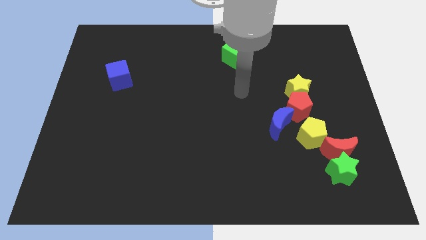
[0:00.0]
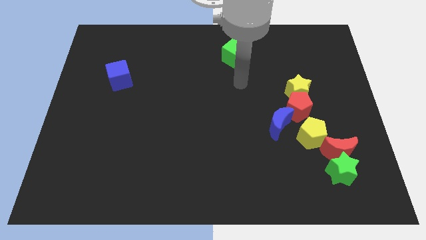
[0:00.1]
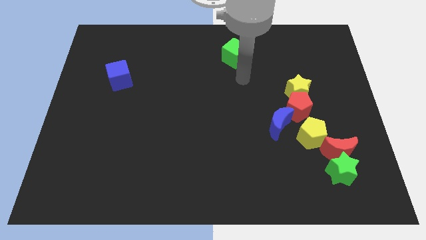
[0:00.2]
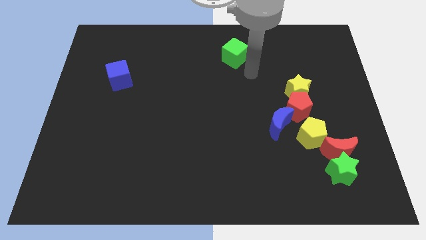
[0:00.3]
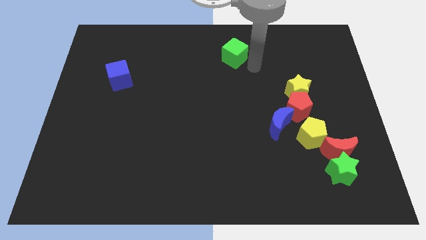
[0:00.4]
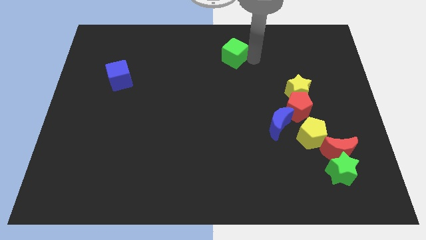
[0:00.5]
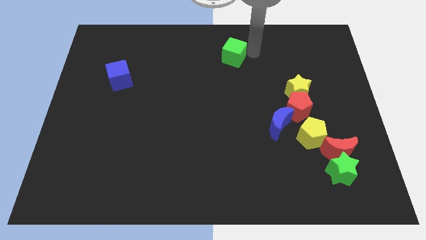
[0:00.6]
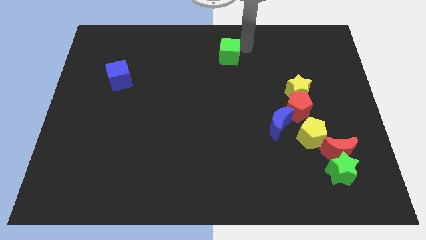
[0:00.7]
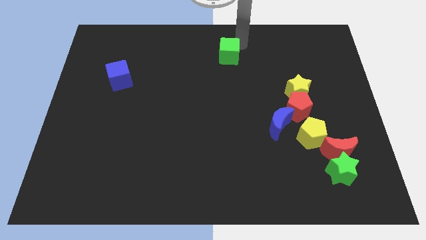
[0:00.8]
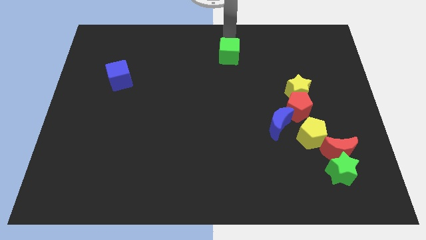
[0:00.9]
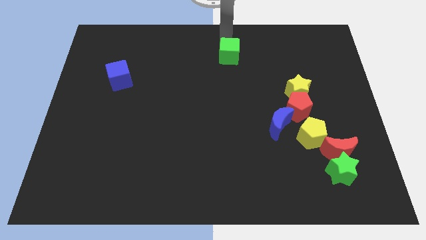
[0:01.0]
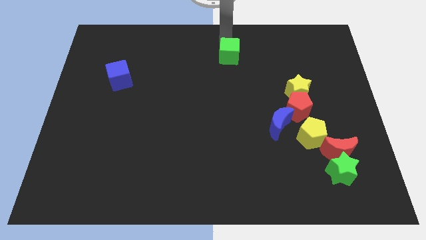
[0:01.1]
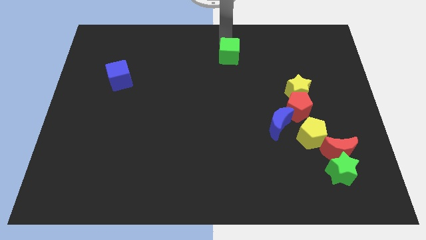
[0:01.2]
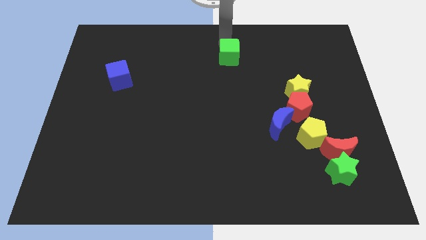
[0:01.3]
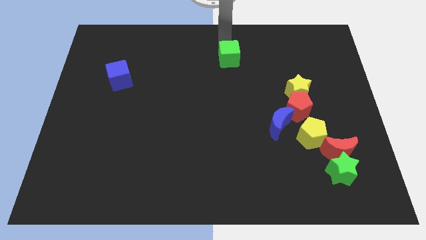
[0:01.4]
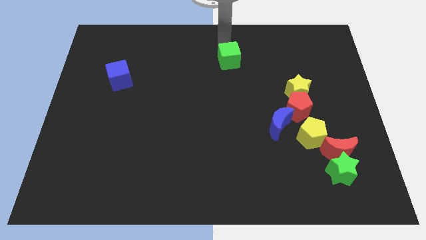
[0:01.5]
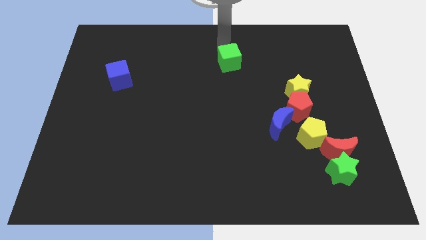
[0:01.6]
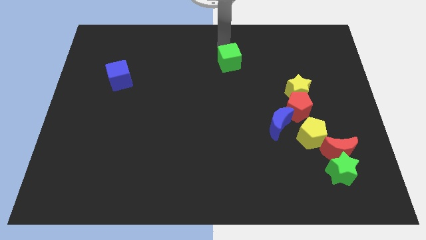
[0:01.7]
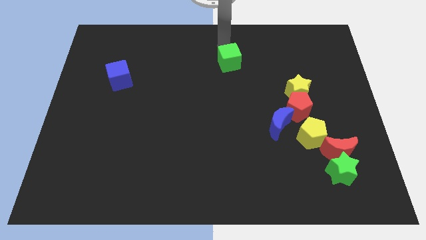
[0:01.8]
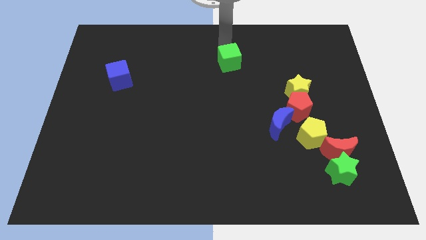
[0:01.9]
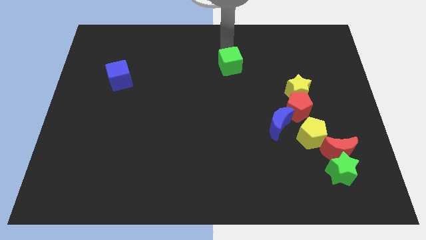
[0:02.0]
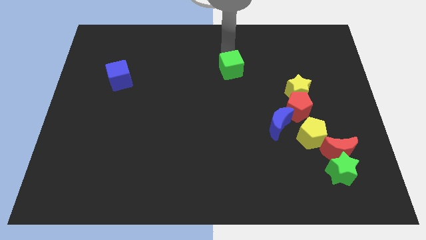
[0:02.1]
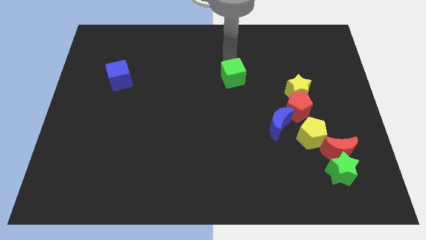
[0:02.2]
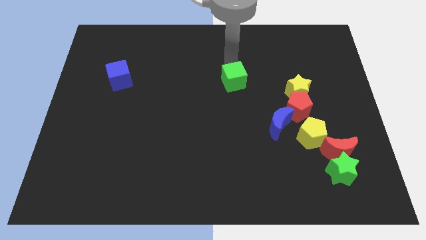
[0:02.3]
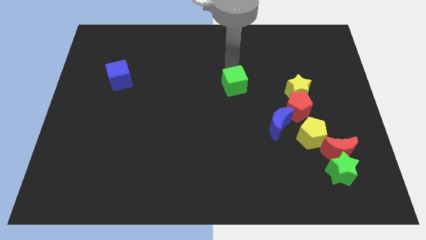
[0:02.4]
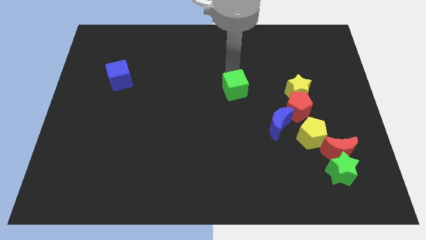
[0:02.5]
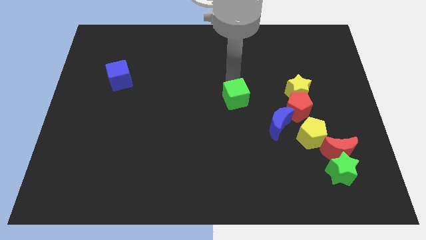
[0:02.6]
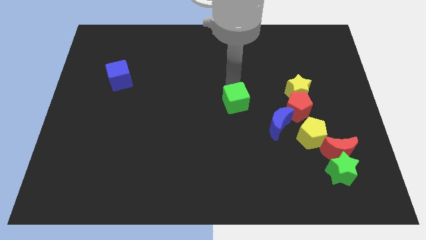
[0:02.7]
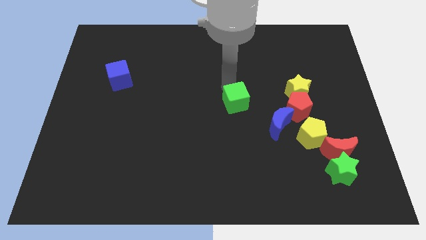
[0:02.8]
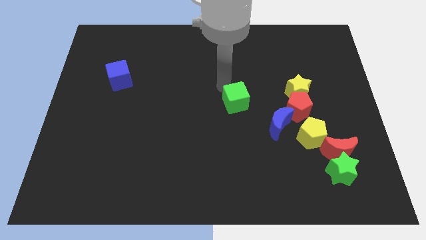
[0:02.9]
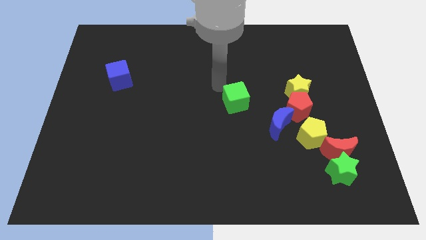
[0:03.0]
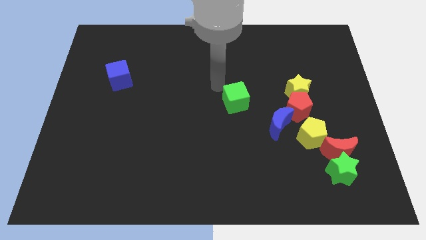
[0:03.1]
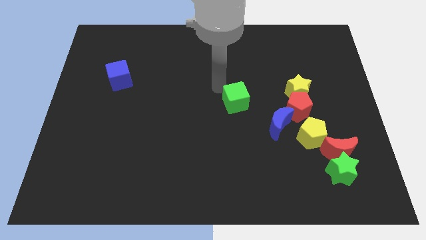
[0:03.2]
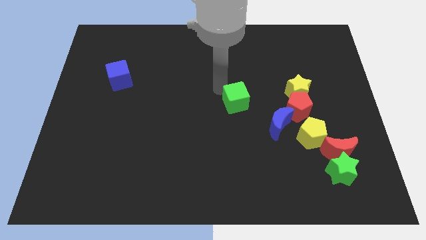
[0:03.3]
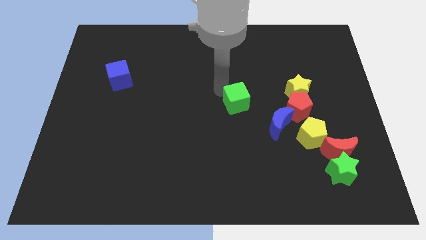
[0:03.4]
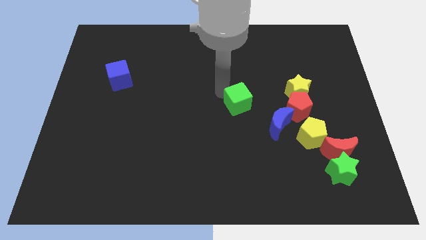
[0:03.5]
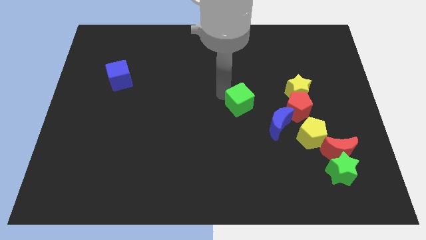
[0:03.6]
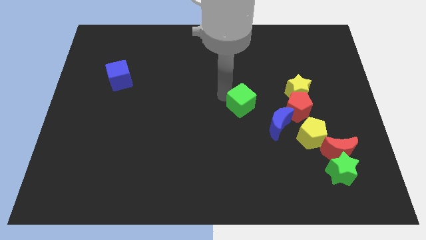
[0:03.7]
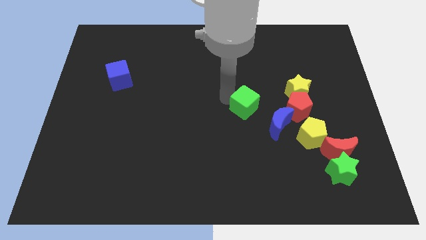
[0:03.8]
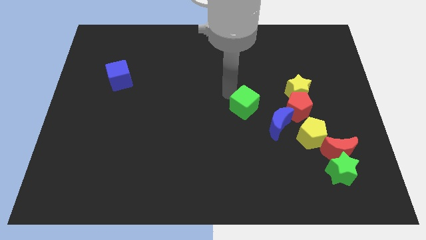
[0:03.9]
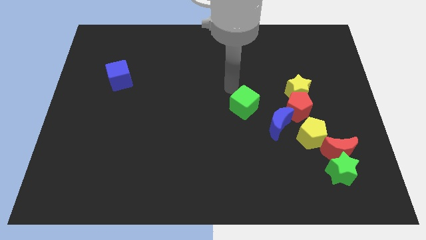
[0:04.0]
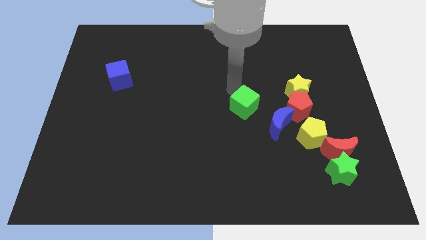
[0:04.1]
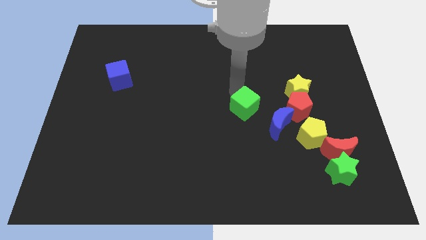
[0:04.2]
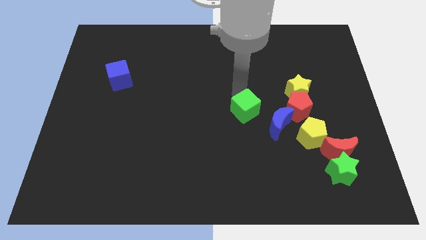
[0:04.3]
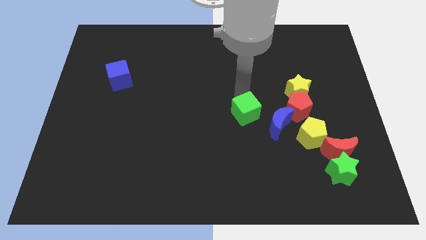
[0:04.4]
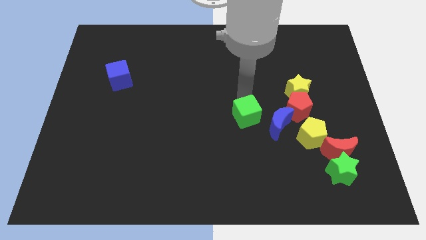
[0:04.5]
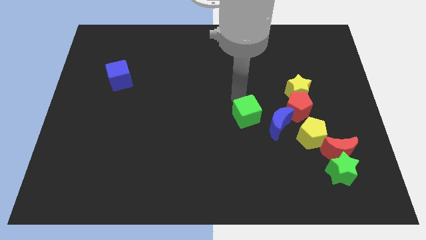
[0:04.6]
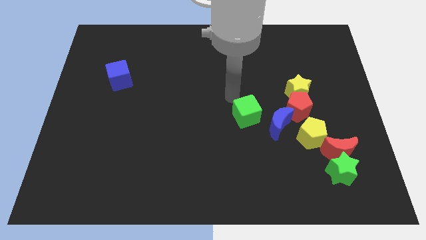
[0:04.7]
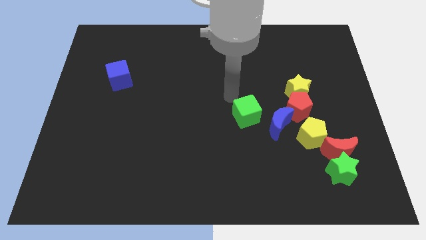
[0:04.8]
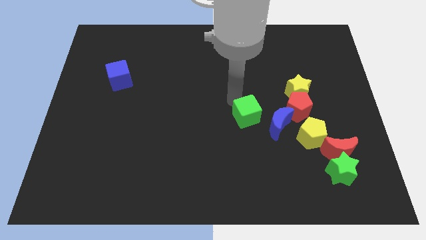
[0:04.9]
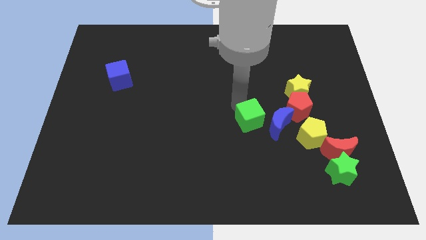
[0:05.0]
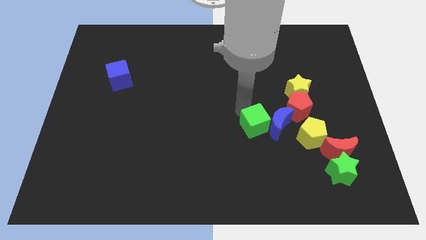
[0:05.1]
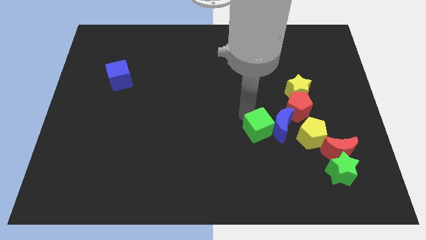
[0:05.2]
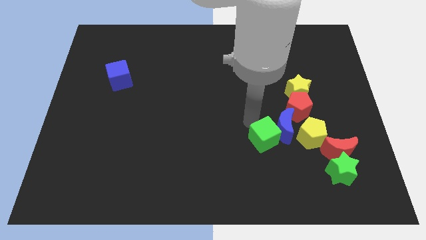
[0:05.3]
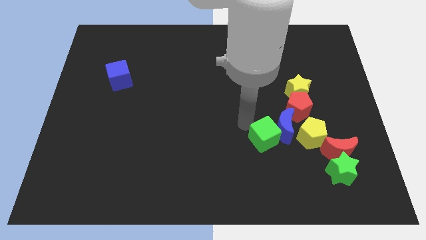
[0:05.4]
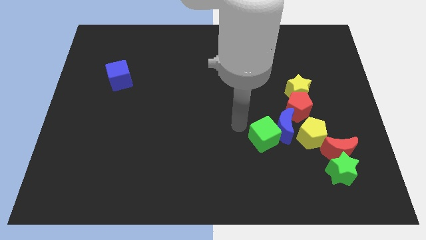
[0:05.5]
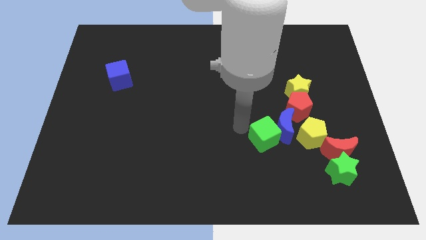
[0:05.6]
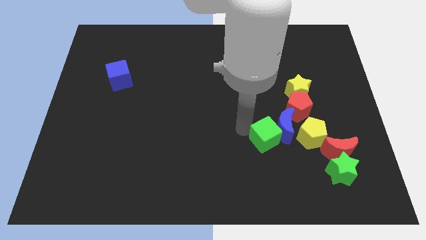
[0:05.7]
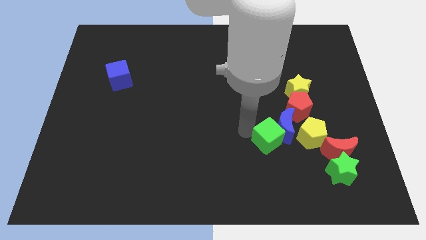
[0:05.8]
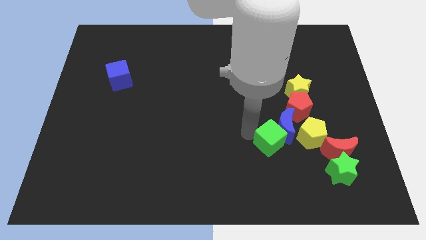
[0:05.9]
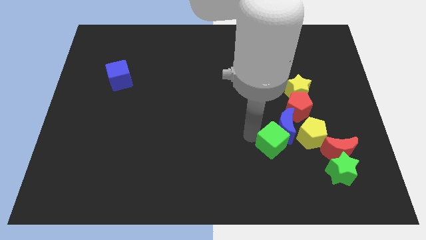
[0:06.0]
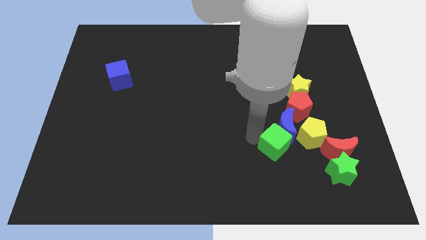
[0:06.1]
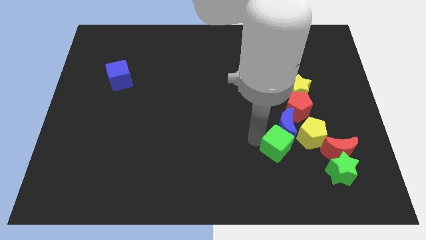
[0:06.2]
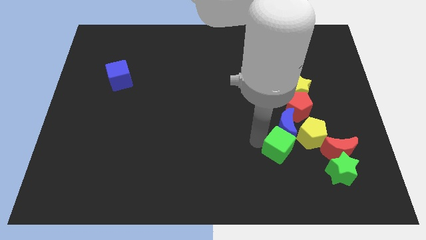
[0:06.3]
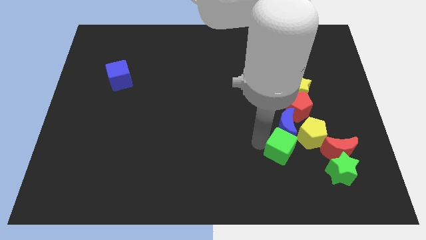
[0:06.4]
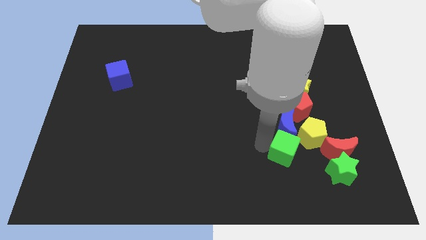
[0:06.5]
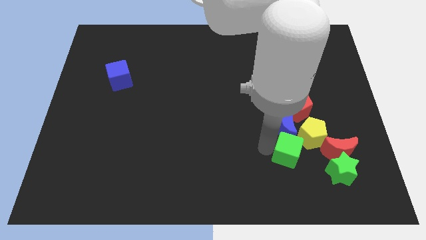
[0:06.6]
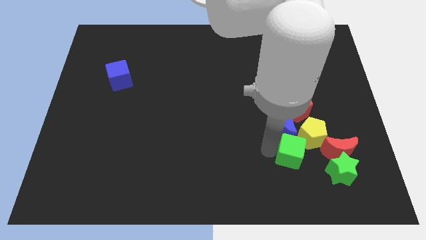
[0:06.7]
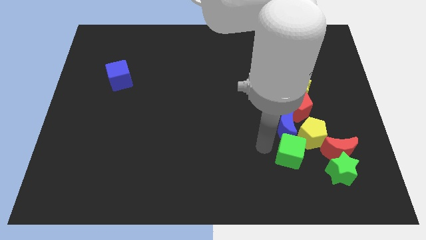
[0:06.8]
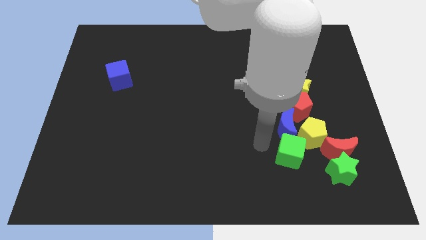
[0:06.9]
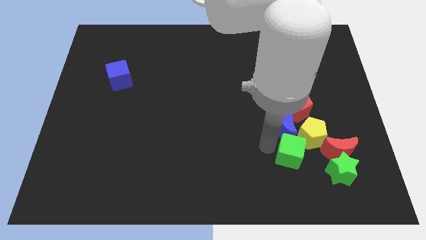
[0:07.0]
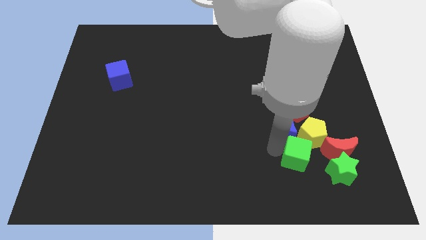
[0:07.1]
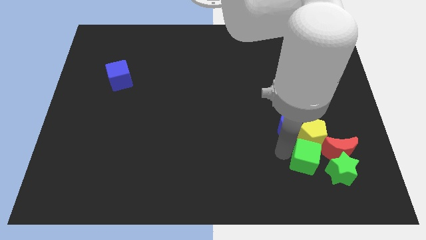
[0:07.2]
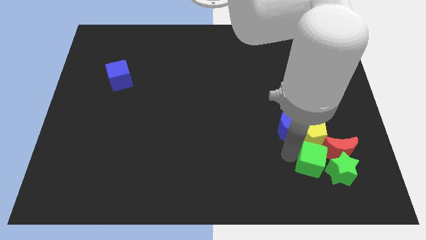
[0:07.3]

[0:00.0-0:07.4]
move the green cube close to the green star
